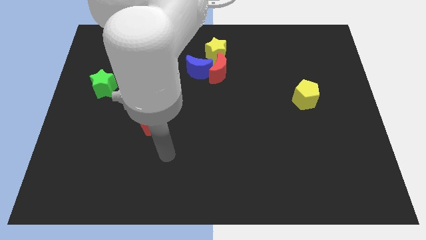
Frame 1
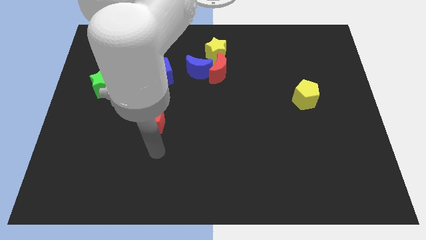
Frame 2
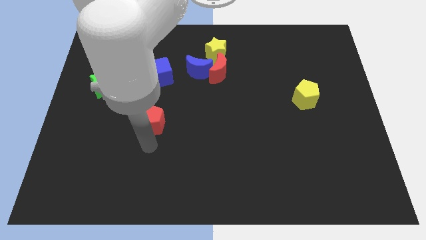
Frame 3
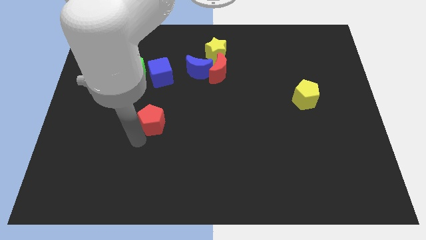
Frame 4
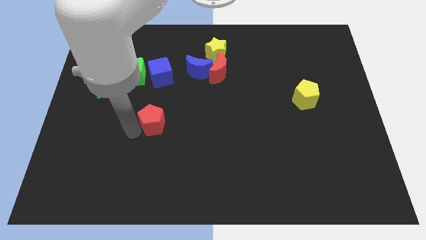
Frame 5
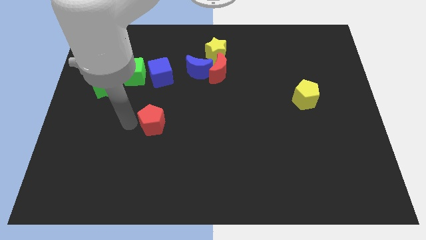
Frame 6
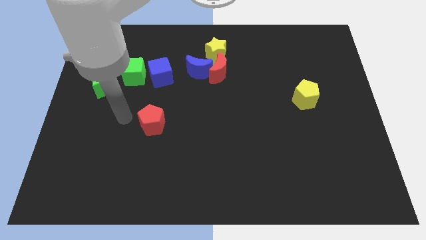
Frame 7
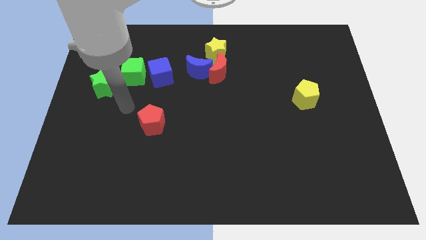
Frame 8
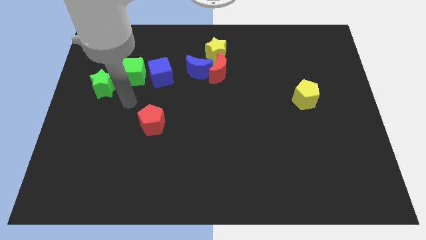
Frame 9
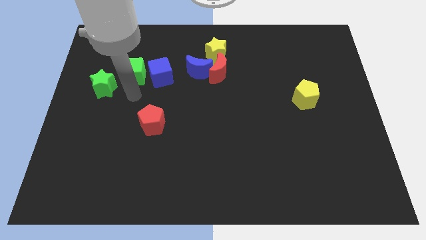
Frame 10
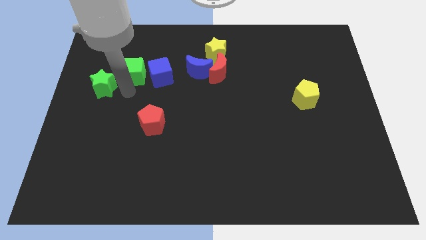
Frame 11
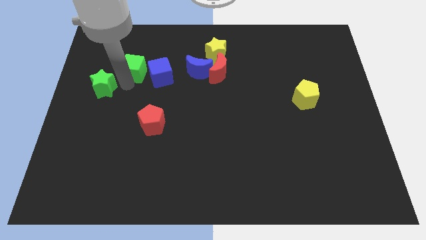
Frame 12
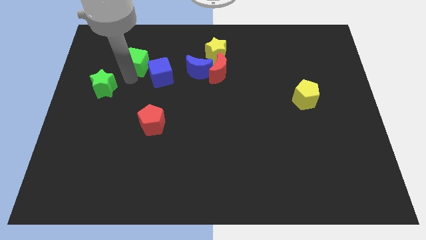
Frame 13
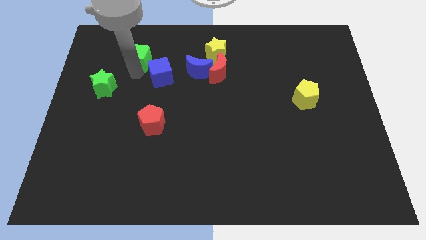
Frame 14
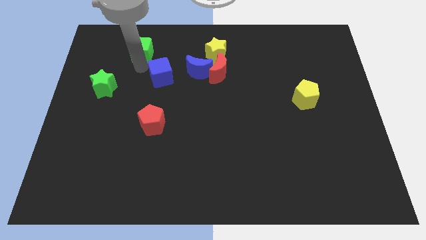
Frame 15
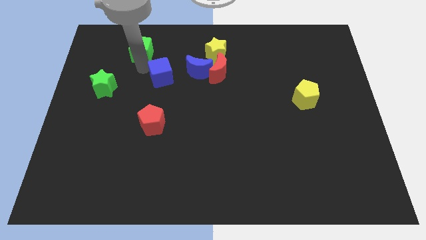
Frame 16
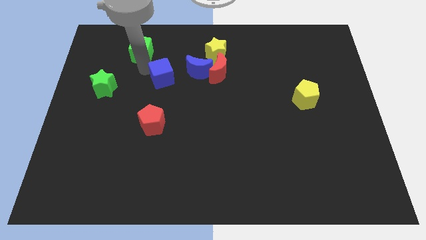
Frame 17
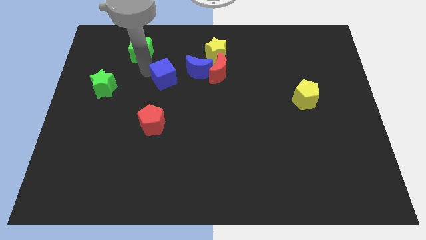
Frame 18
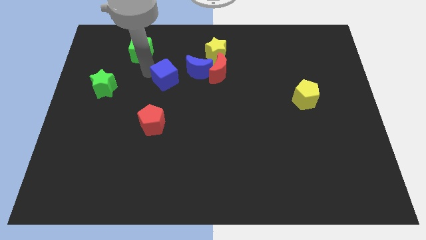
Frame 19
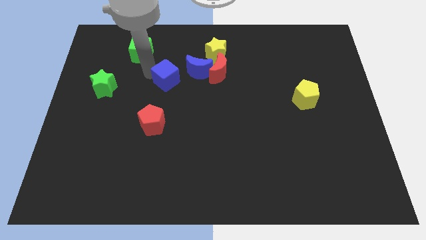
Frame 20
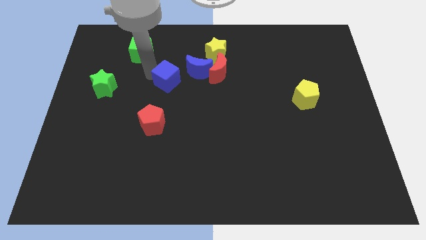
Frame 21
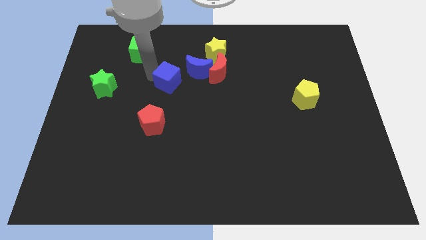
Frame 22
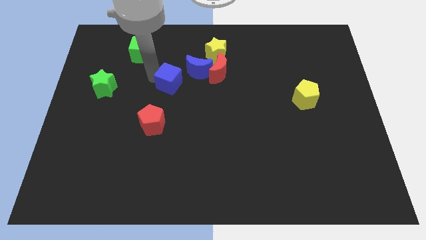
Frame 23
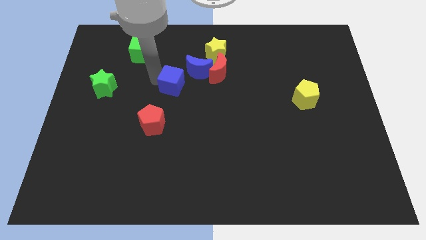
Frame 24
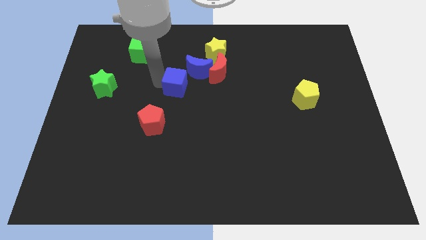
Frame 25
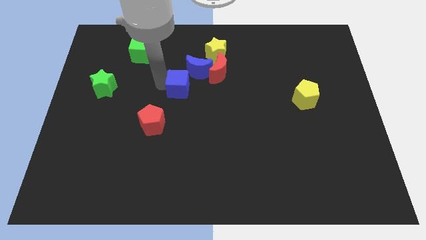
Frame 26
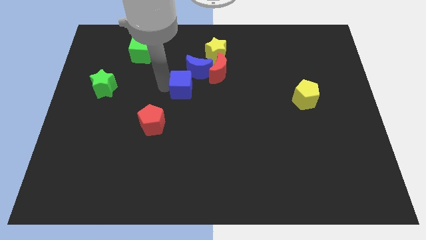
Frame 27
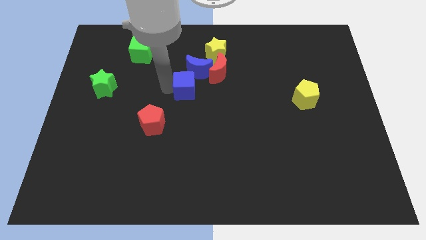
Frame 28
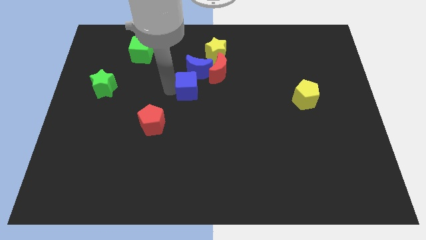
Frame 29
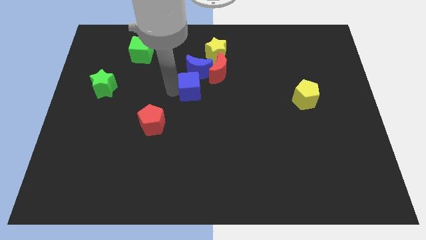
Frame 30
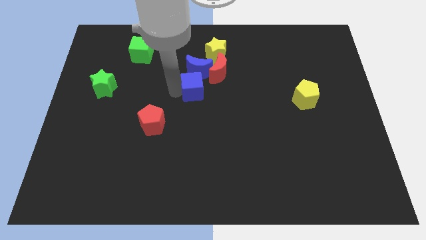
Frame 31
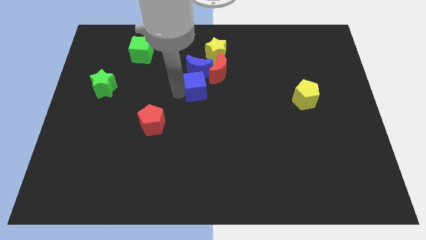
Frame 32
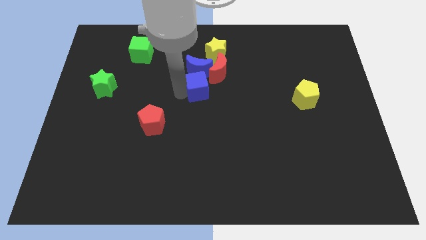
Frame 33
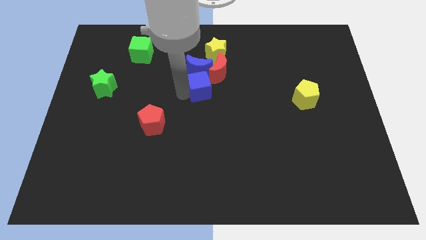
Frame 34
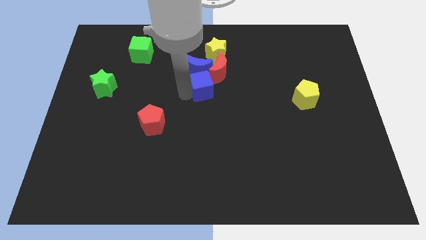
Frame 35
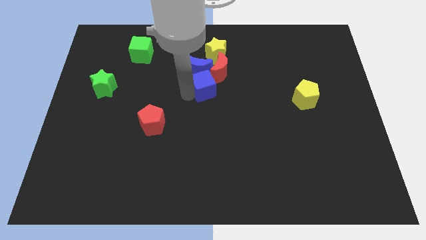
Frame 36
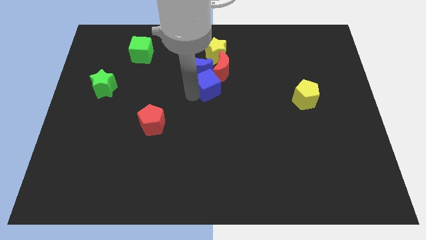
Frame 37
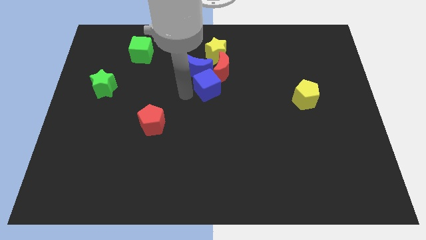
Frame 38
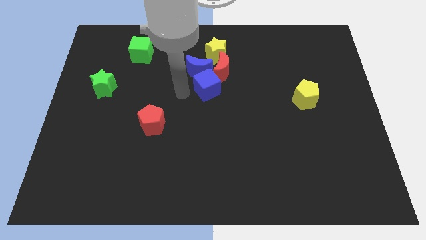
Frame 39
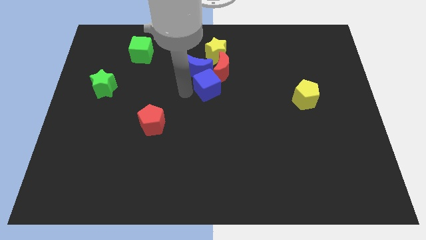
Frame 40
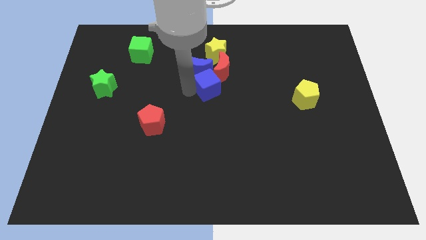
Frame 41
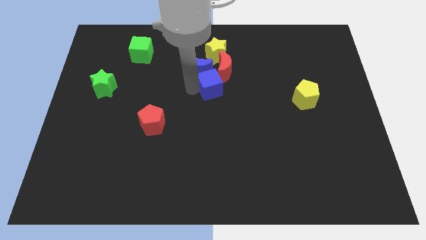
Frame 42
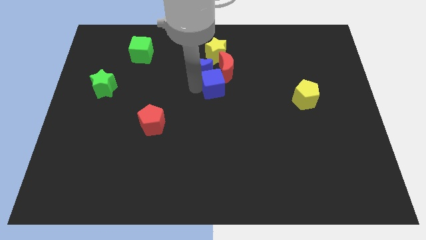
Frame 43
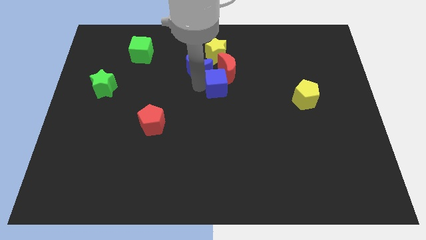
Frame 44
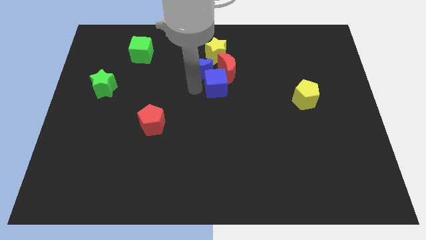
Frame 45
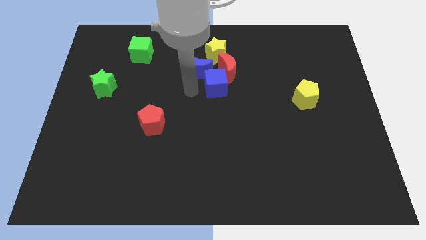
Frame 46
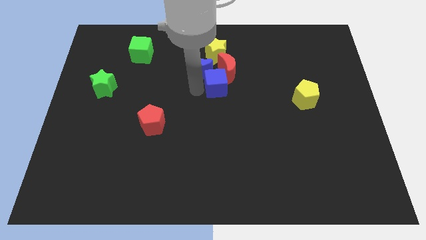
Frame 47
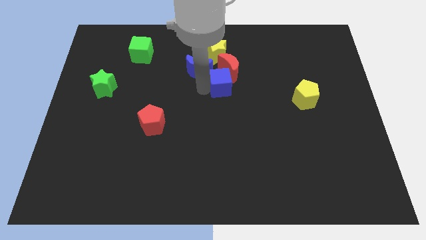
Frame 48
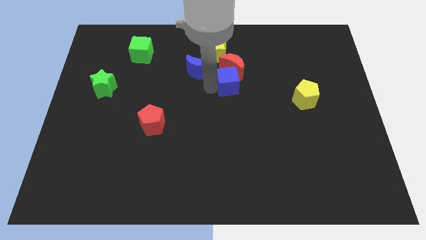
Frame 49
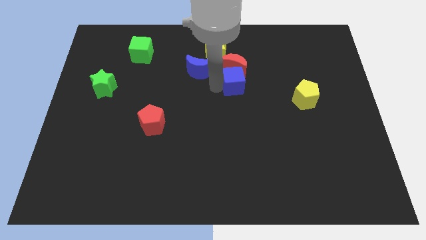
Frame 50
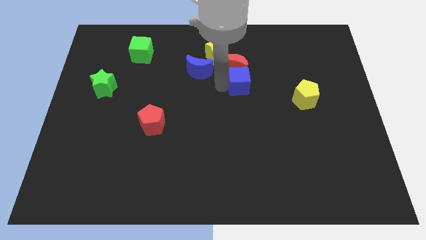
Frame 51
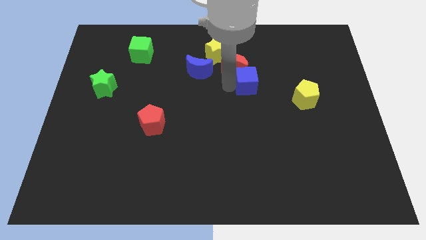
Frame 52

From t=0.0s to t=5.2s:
slide the blue cube to the right

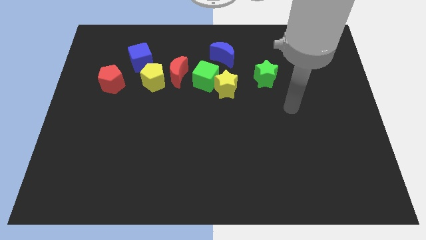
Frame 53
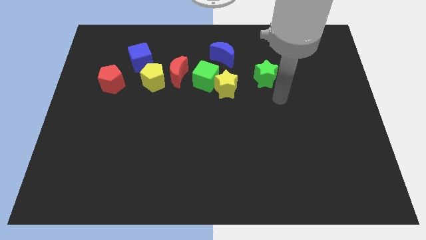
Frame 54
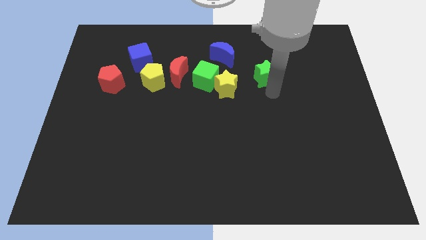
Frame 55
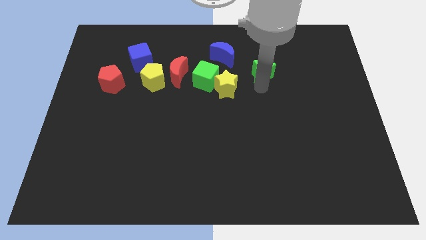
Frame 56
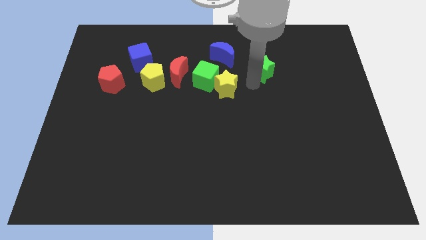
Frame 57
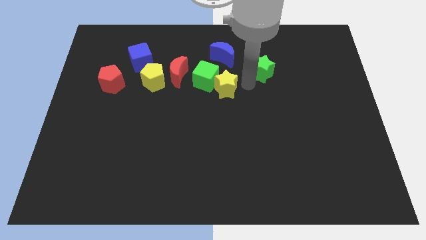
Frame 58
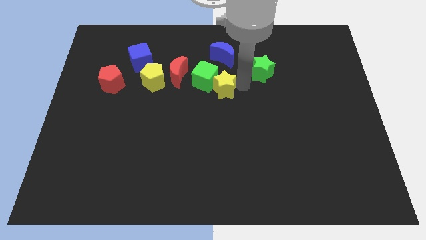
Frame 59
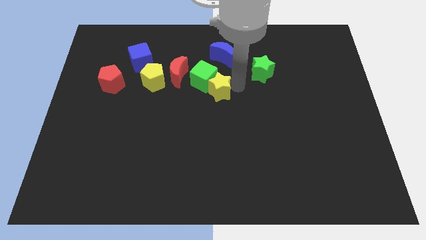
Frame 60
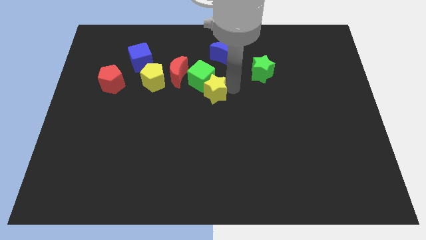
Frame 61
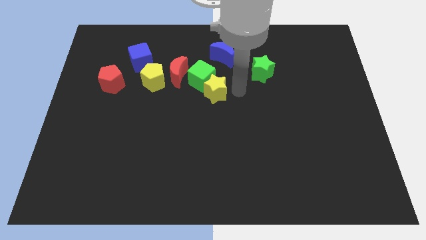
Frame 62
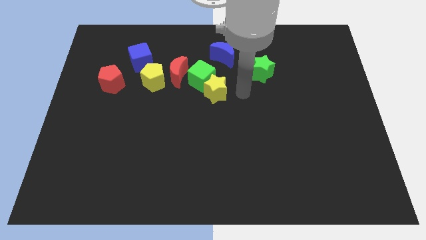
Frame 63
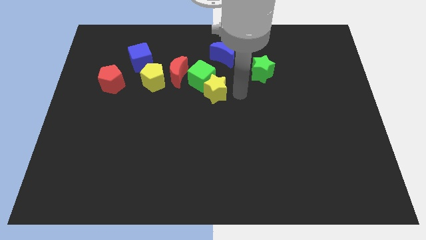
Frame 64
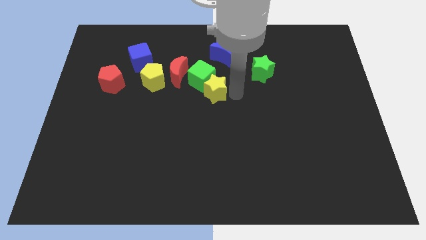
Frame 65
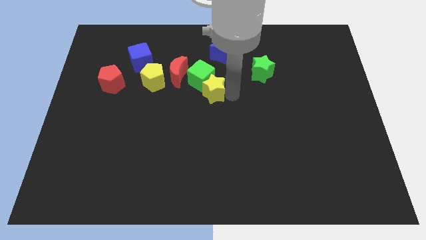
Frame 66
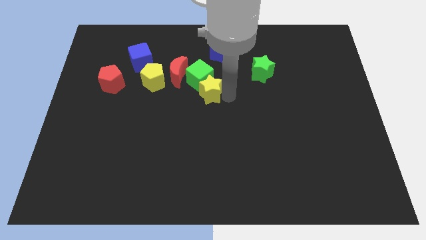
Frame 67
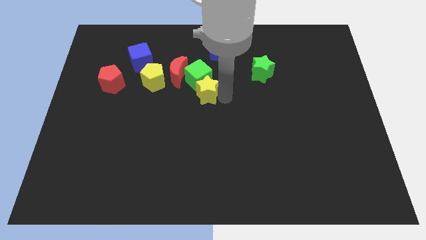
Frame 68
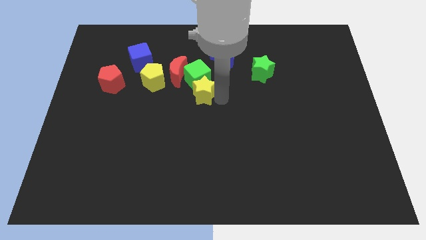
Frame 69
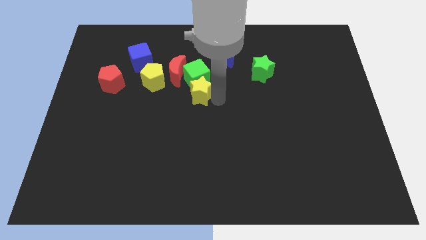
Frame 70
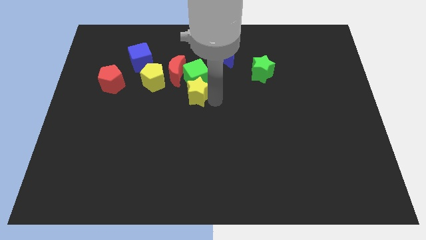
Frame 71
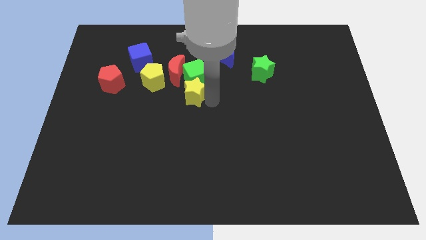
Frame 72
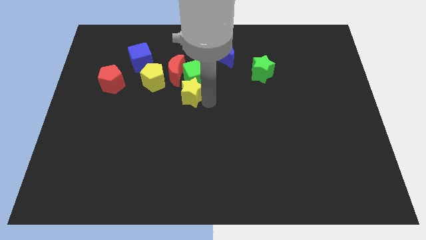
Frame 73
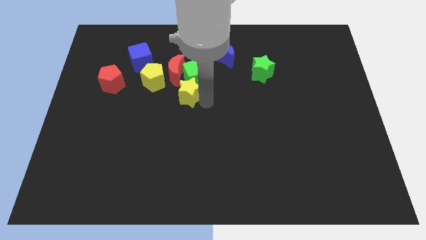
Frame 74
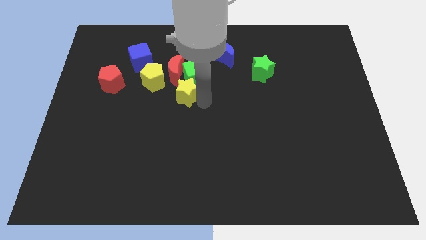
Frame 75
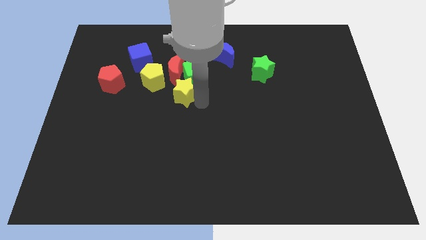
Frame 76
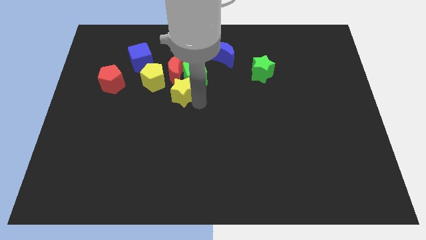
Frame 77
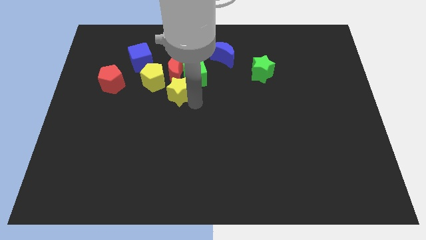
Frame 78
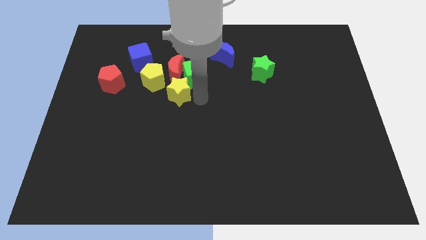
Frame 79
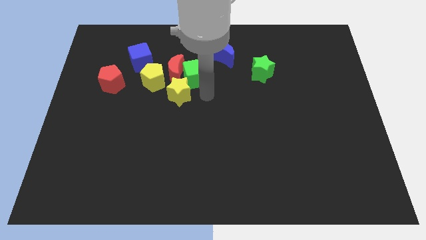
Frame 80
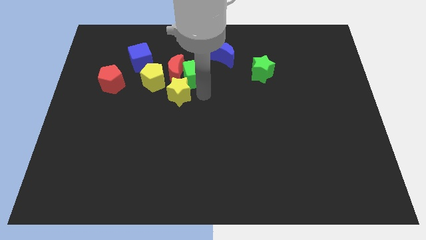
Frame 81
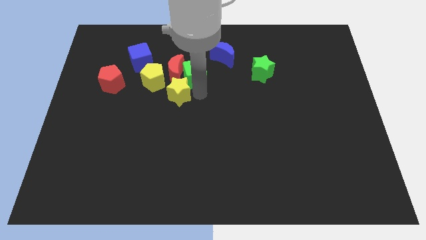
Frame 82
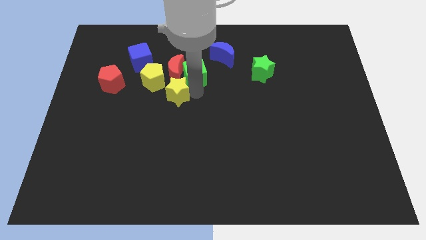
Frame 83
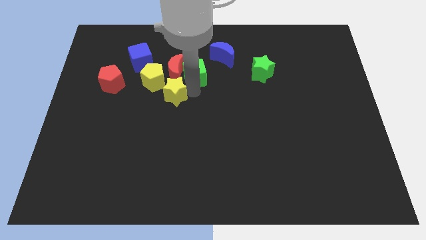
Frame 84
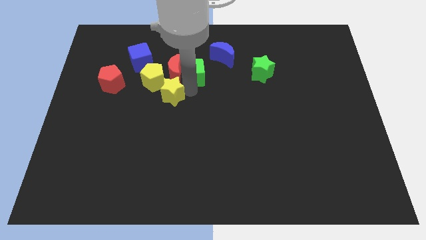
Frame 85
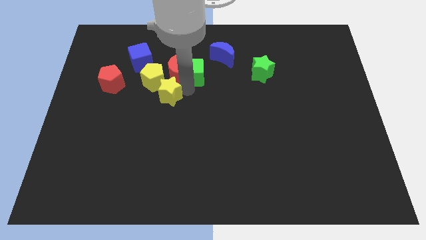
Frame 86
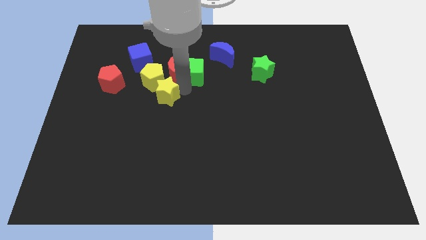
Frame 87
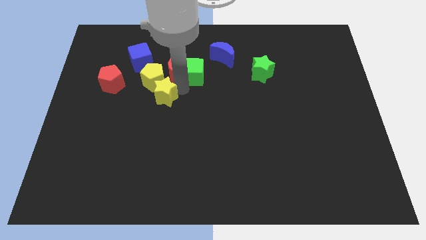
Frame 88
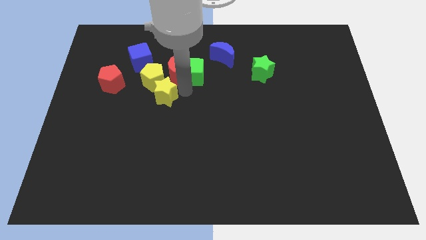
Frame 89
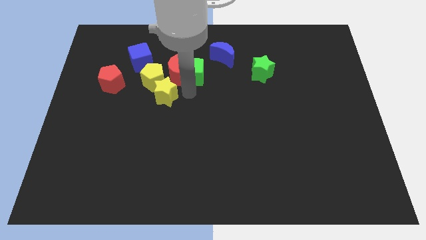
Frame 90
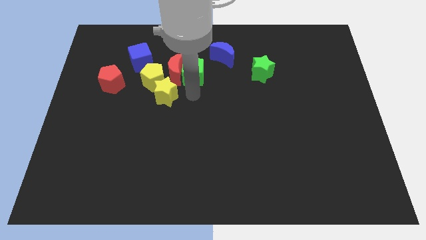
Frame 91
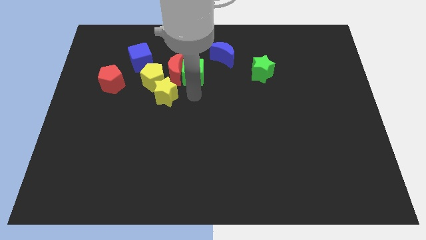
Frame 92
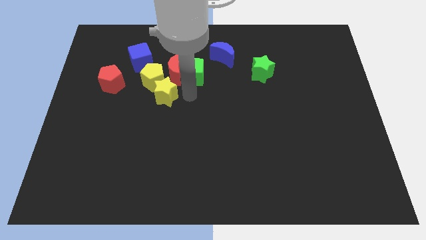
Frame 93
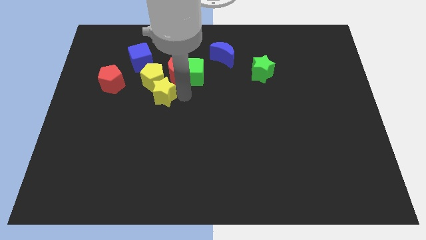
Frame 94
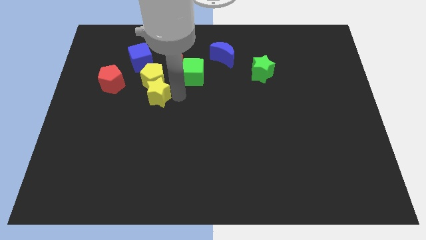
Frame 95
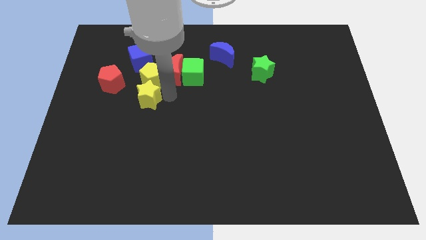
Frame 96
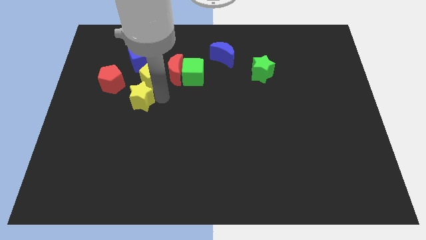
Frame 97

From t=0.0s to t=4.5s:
move the yellow star to the left
